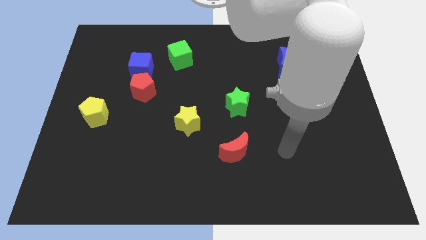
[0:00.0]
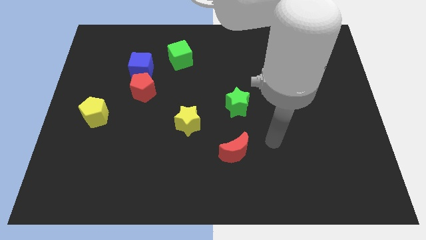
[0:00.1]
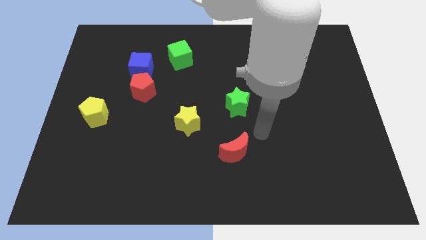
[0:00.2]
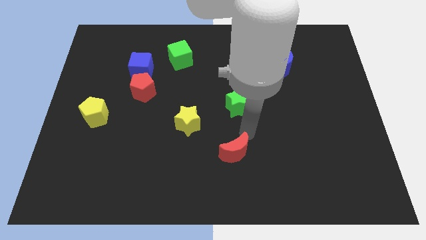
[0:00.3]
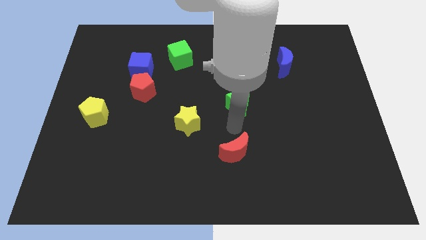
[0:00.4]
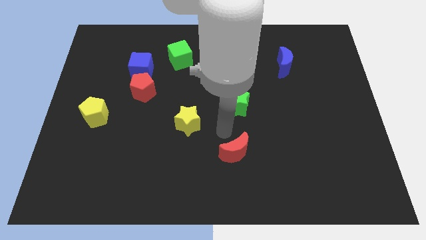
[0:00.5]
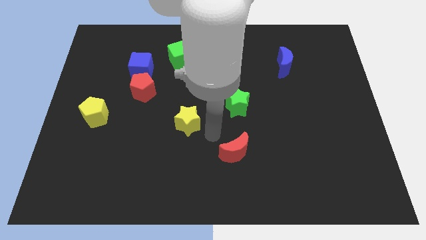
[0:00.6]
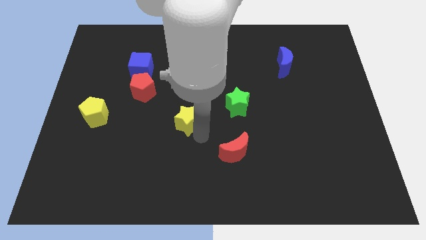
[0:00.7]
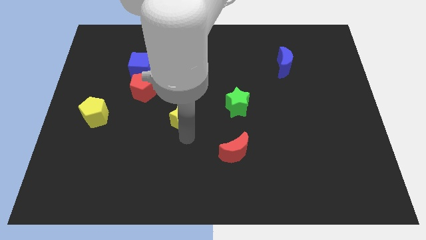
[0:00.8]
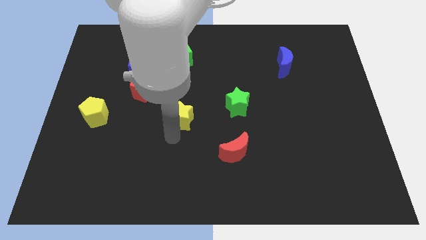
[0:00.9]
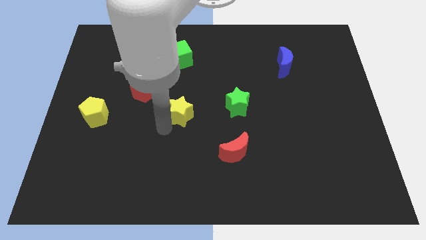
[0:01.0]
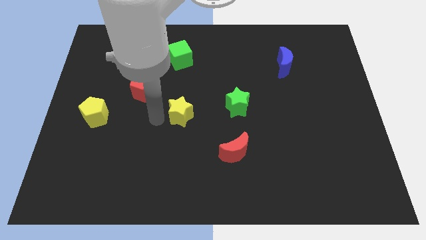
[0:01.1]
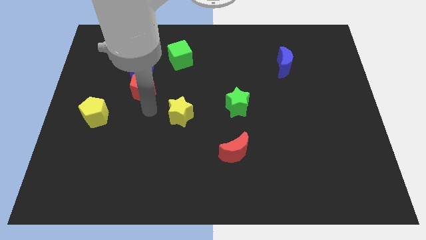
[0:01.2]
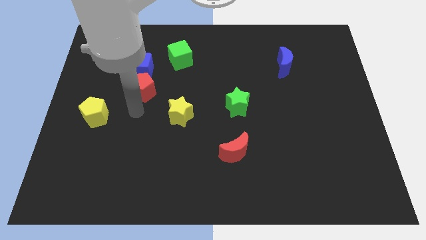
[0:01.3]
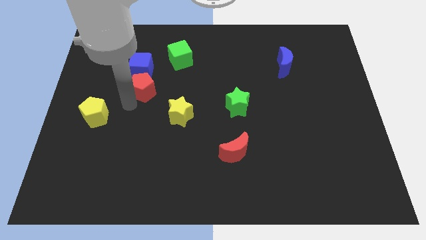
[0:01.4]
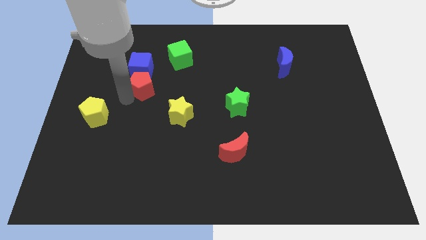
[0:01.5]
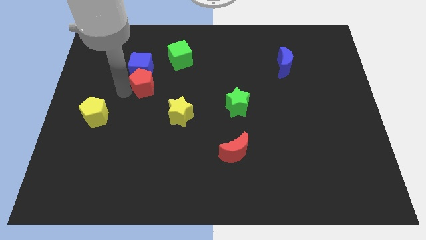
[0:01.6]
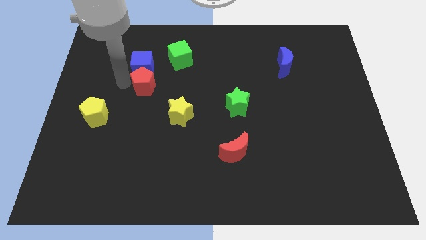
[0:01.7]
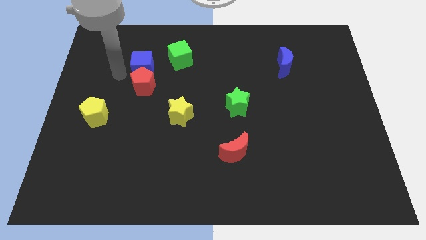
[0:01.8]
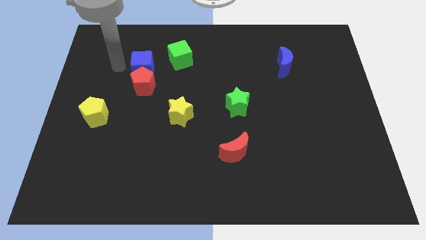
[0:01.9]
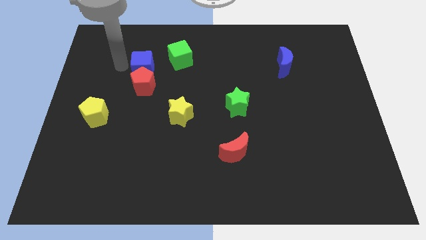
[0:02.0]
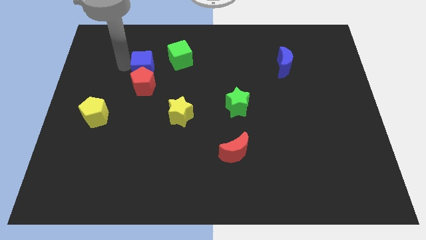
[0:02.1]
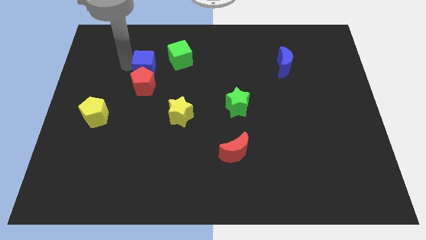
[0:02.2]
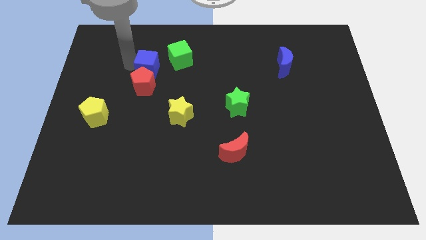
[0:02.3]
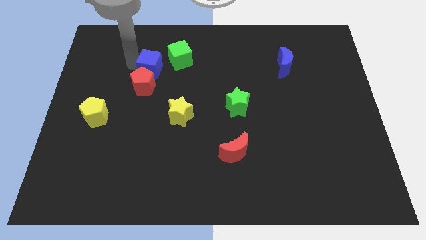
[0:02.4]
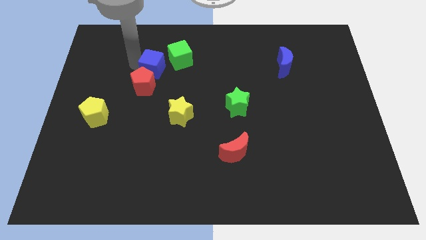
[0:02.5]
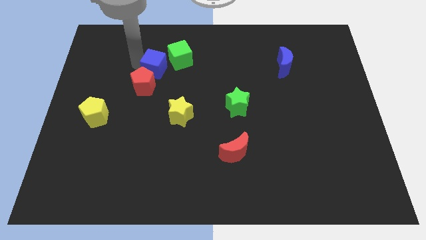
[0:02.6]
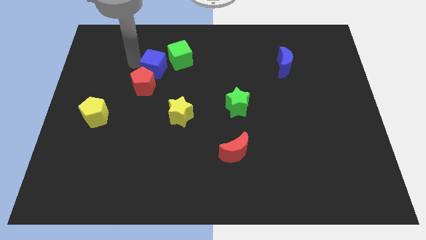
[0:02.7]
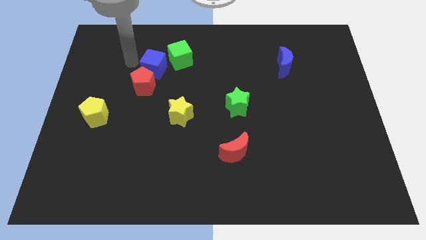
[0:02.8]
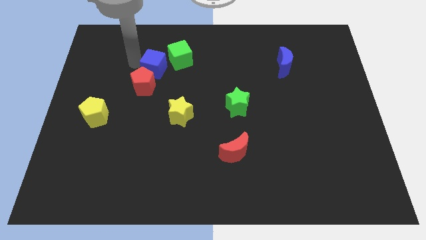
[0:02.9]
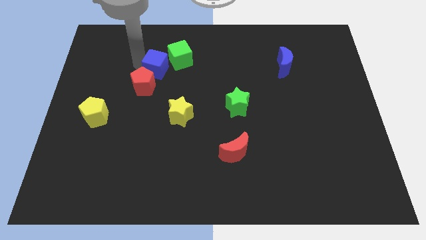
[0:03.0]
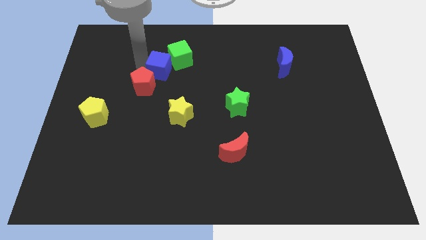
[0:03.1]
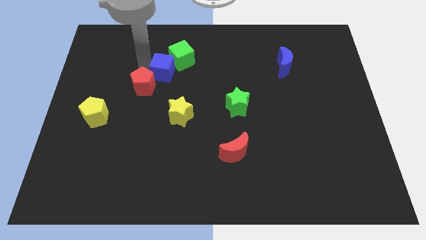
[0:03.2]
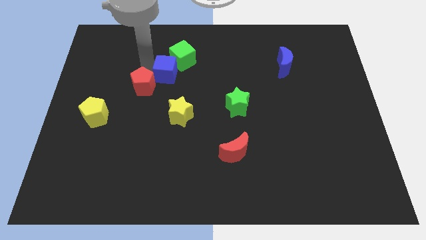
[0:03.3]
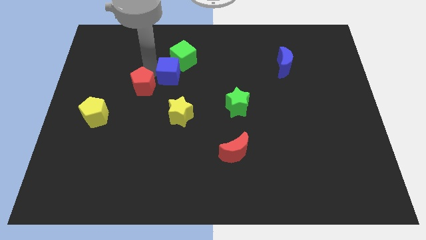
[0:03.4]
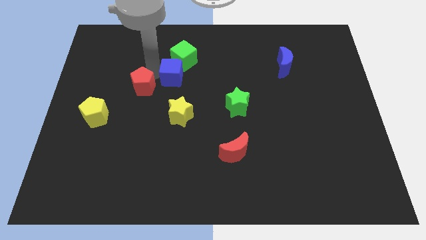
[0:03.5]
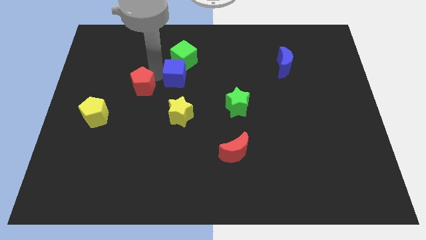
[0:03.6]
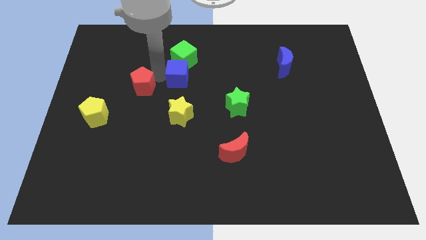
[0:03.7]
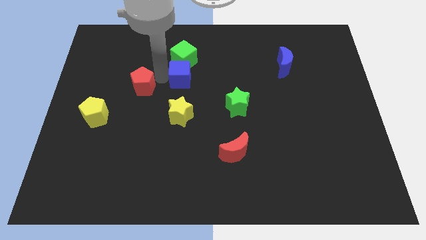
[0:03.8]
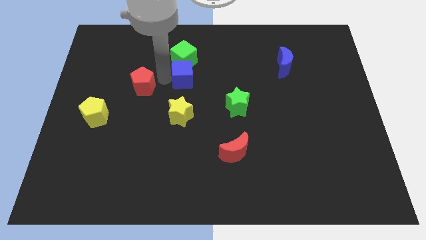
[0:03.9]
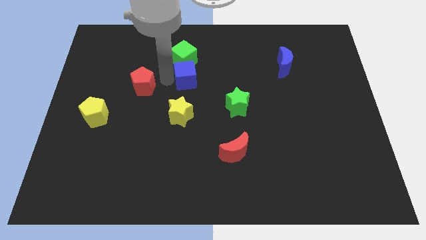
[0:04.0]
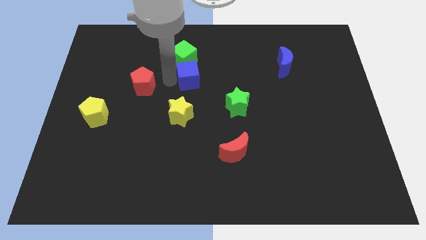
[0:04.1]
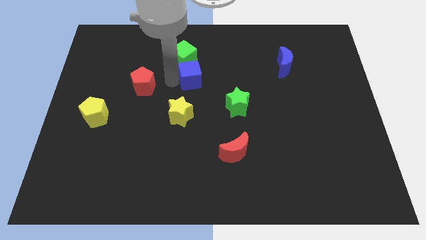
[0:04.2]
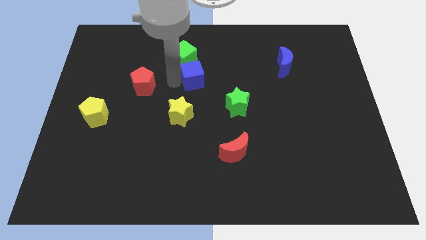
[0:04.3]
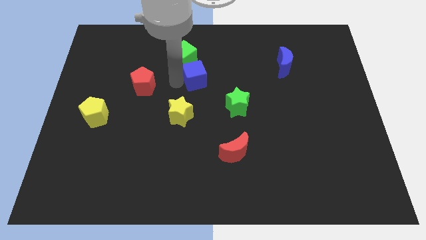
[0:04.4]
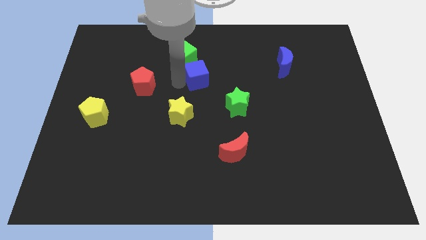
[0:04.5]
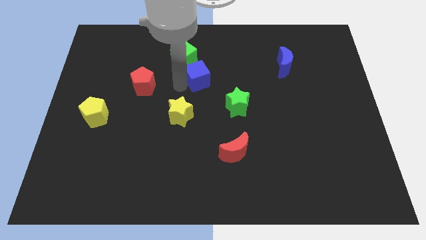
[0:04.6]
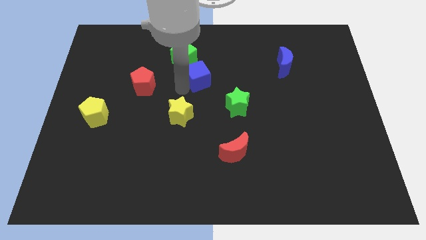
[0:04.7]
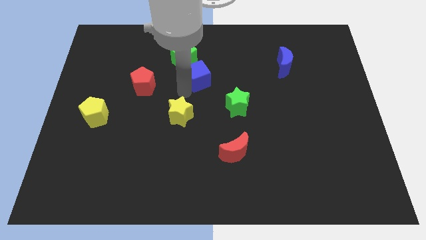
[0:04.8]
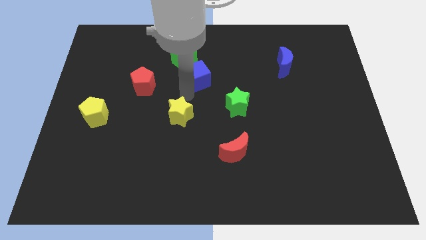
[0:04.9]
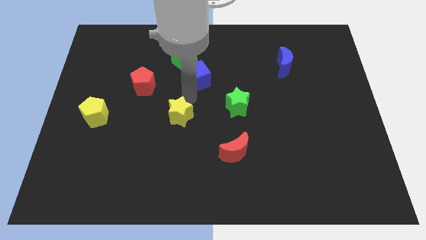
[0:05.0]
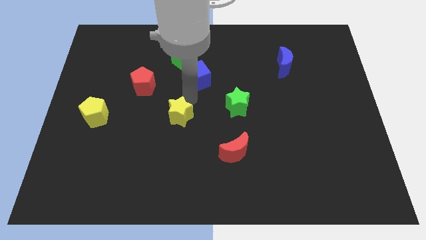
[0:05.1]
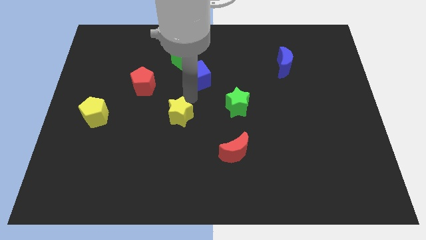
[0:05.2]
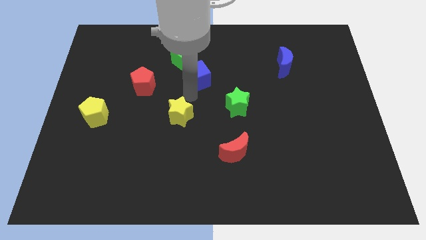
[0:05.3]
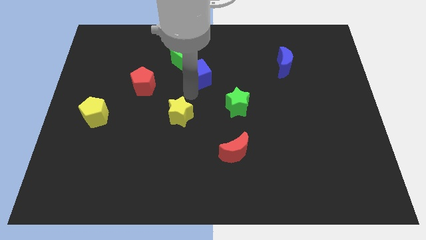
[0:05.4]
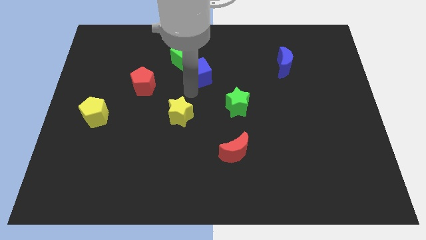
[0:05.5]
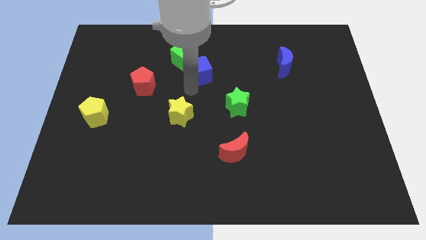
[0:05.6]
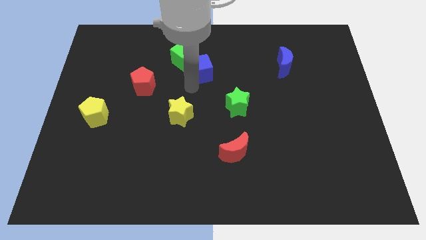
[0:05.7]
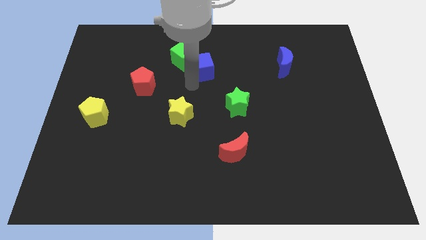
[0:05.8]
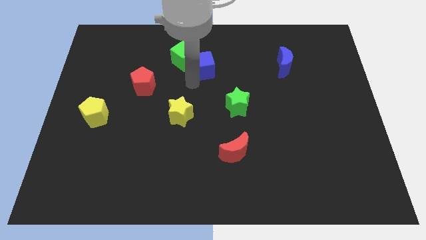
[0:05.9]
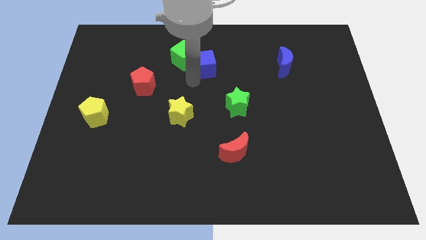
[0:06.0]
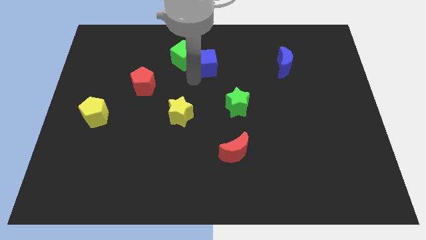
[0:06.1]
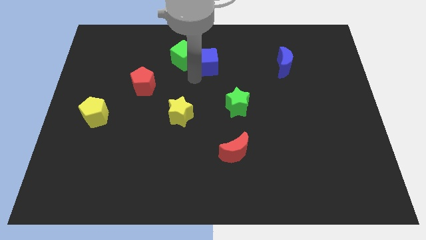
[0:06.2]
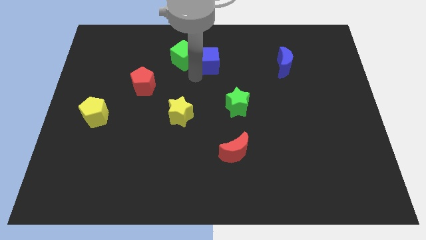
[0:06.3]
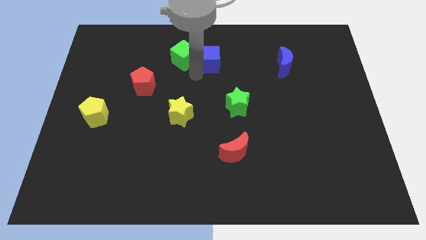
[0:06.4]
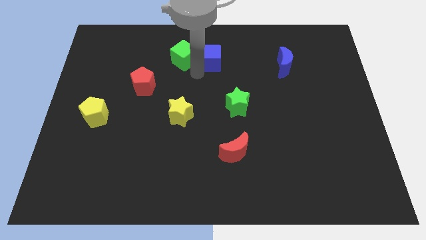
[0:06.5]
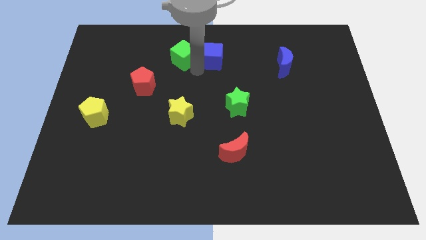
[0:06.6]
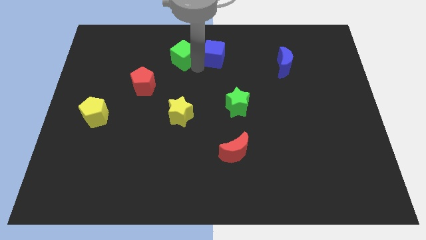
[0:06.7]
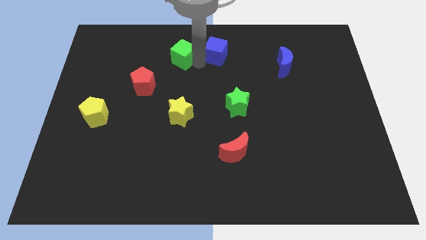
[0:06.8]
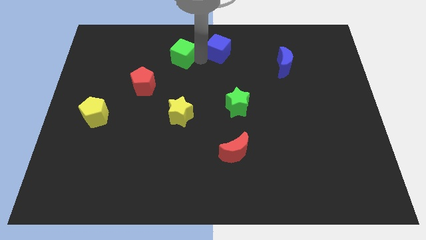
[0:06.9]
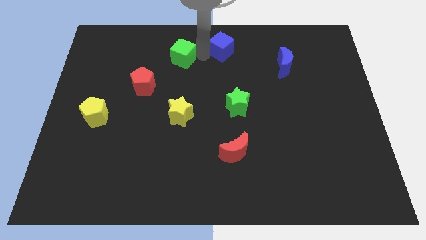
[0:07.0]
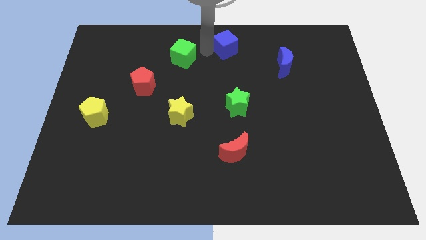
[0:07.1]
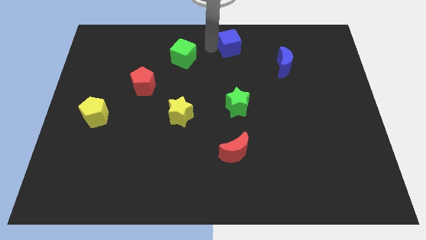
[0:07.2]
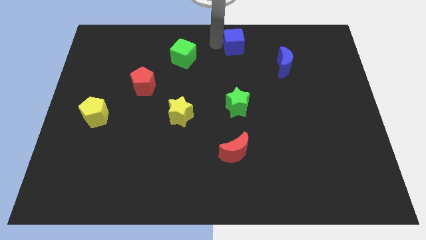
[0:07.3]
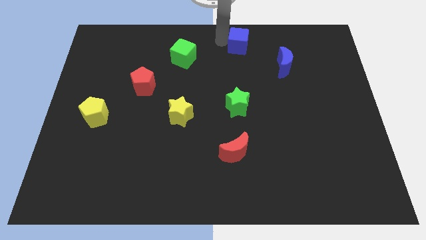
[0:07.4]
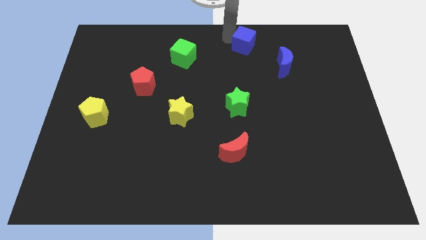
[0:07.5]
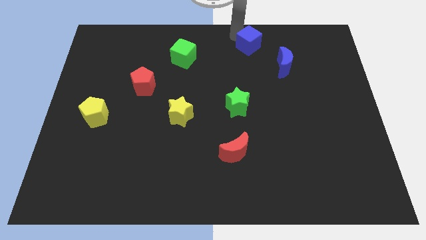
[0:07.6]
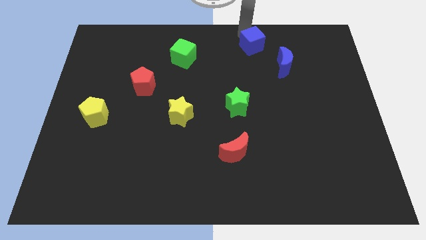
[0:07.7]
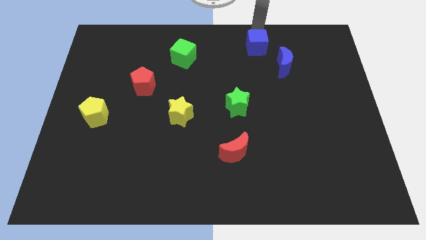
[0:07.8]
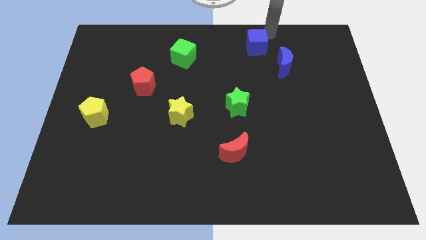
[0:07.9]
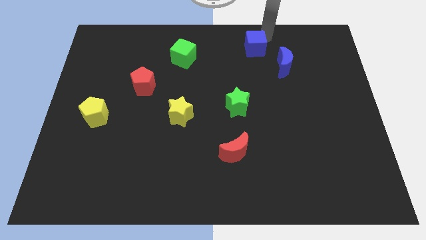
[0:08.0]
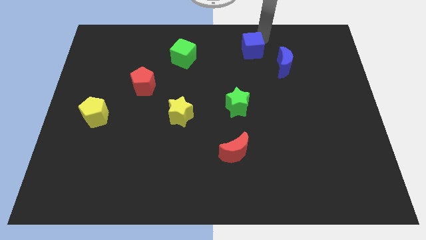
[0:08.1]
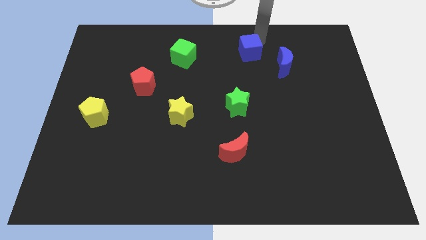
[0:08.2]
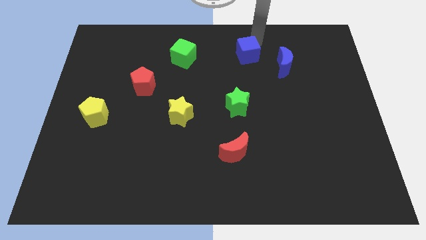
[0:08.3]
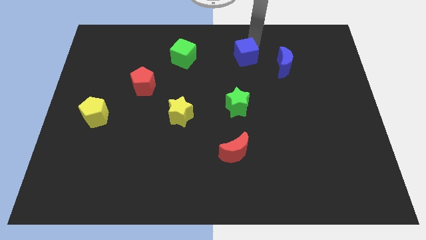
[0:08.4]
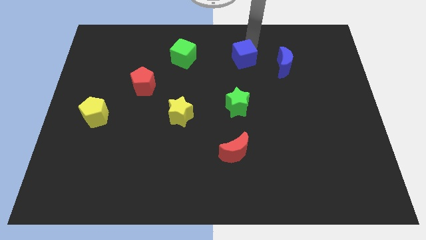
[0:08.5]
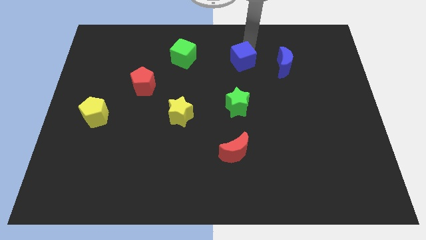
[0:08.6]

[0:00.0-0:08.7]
put the blue cube above the green star
